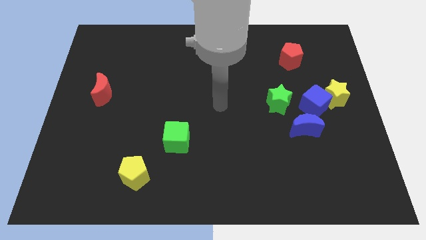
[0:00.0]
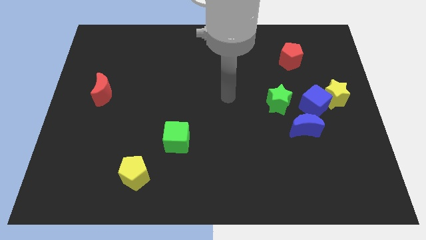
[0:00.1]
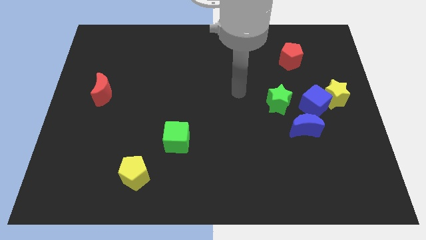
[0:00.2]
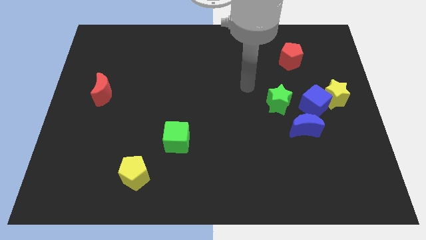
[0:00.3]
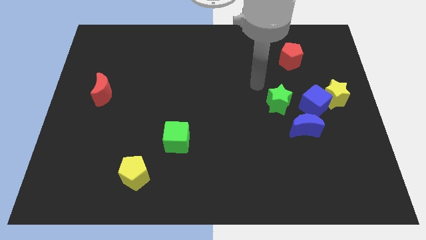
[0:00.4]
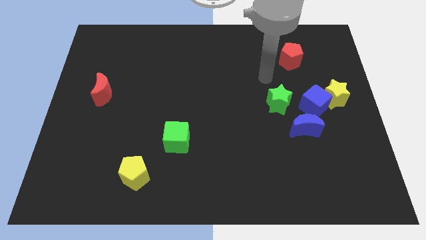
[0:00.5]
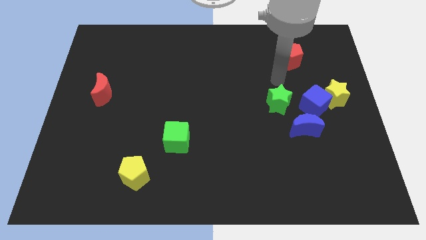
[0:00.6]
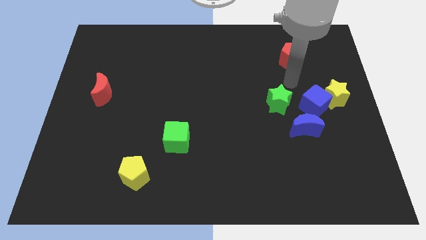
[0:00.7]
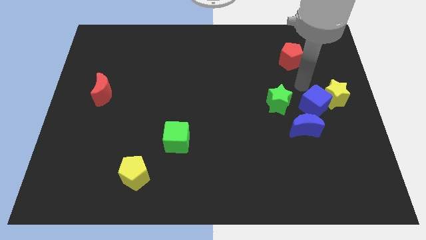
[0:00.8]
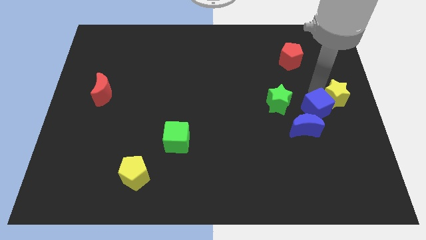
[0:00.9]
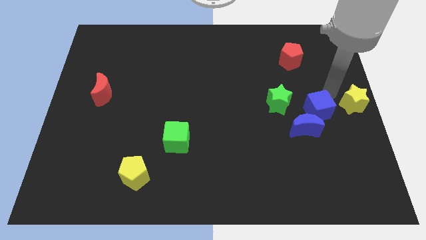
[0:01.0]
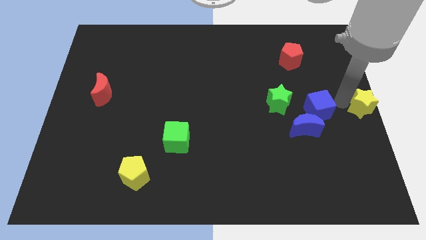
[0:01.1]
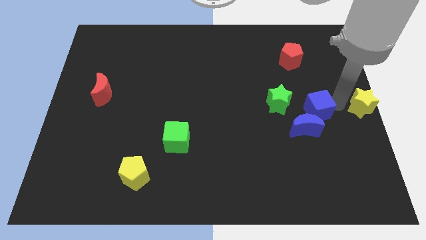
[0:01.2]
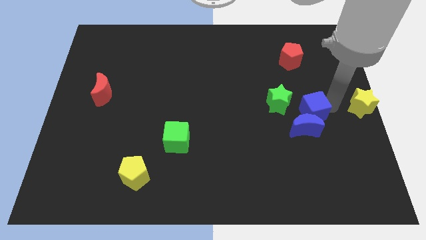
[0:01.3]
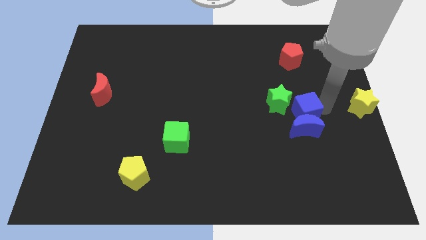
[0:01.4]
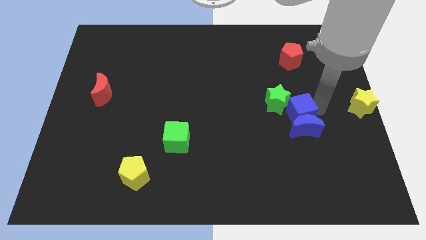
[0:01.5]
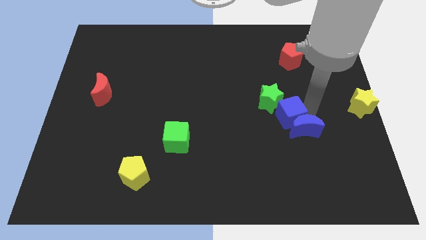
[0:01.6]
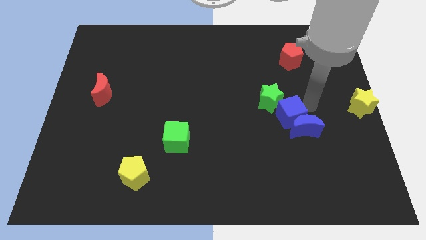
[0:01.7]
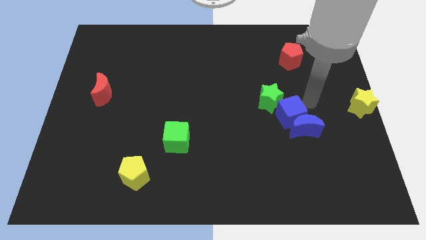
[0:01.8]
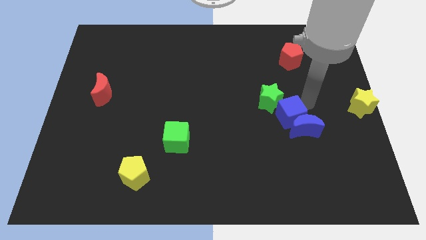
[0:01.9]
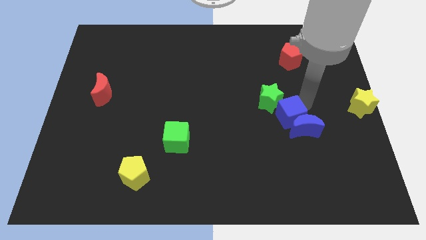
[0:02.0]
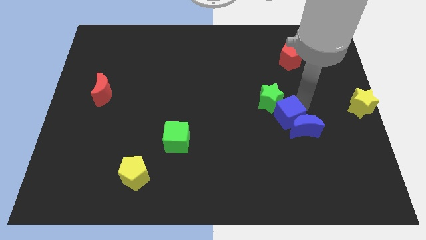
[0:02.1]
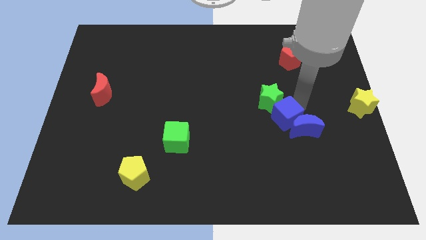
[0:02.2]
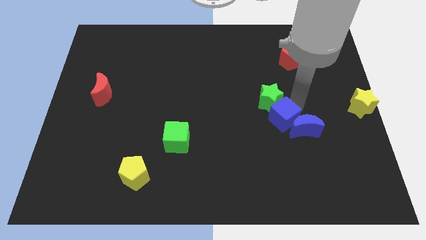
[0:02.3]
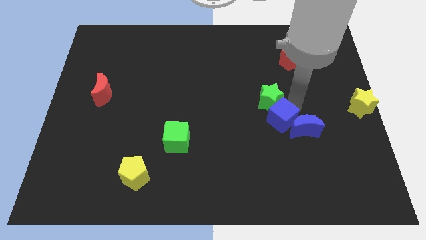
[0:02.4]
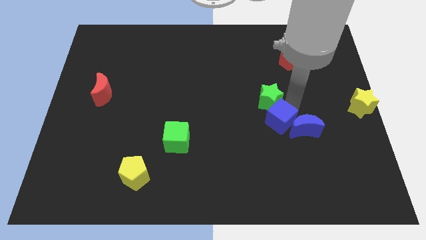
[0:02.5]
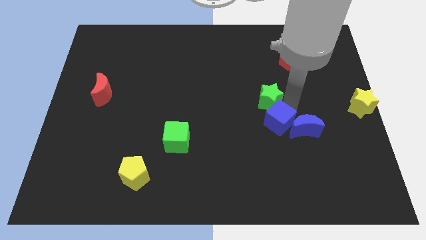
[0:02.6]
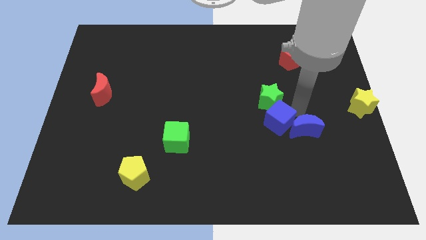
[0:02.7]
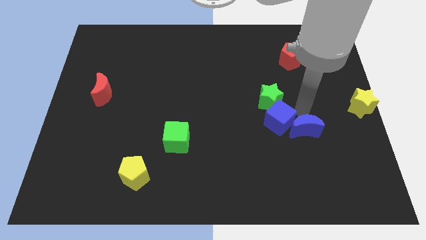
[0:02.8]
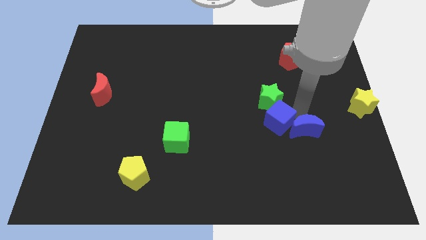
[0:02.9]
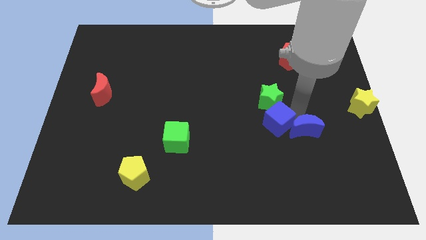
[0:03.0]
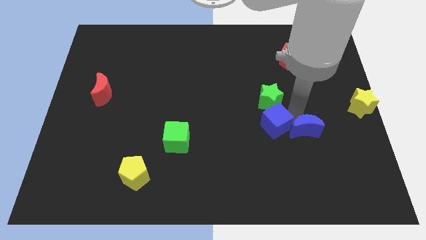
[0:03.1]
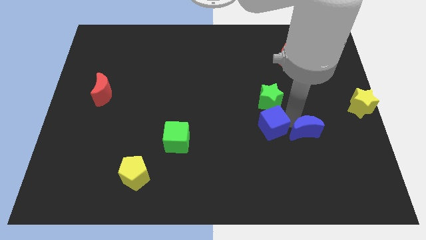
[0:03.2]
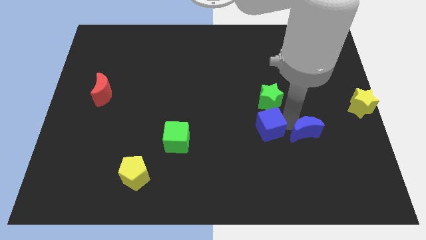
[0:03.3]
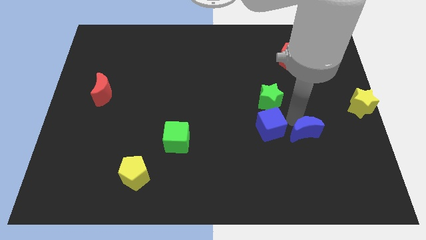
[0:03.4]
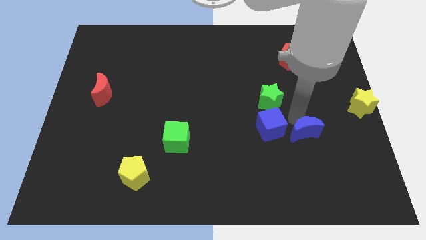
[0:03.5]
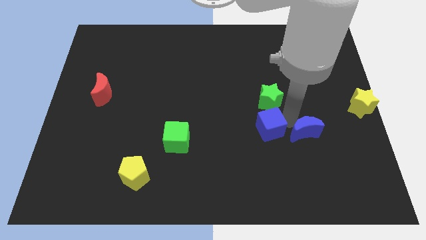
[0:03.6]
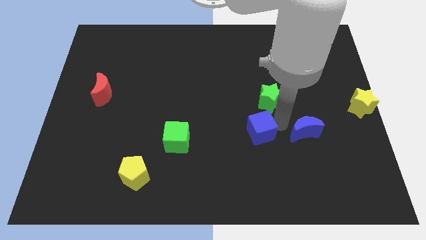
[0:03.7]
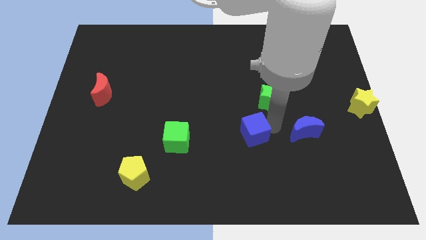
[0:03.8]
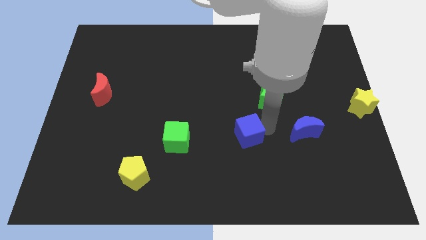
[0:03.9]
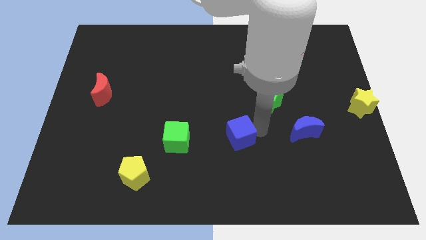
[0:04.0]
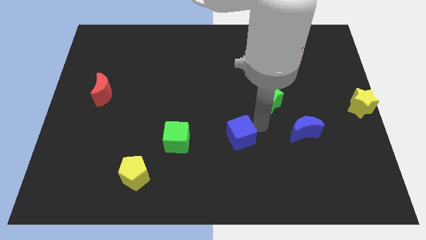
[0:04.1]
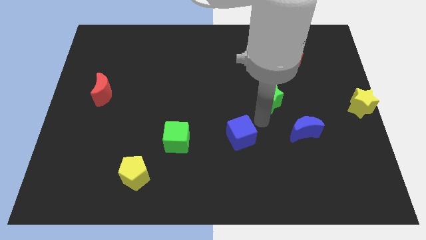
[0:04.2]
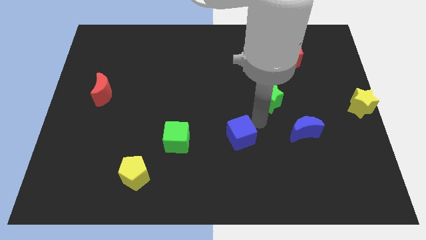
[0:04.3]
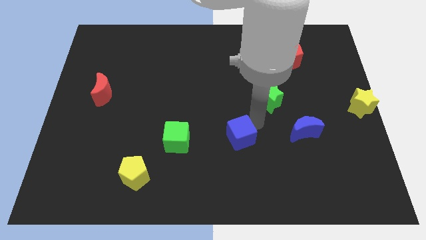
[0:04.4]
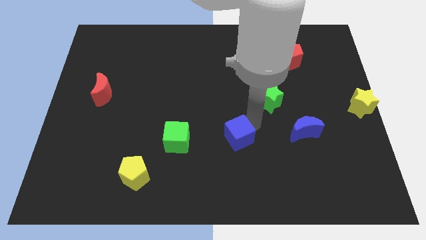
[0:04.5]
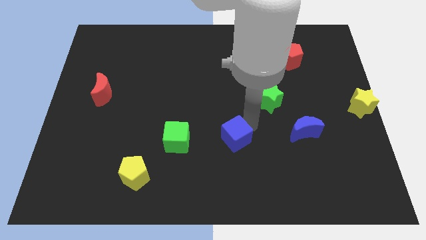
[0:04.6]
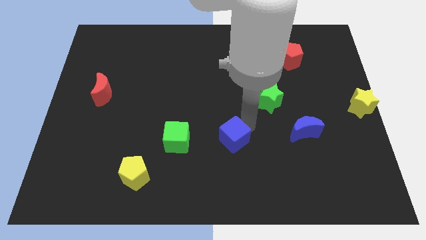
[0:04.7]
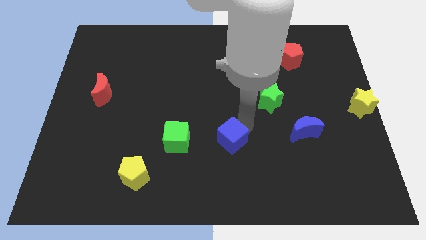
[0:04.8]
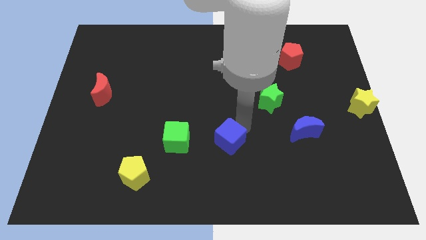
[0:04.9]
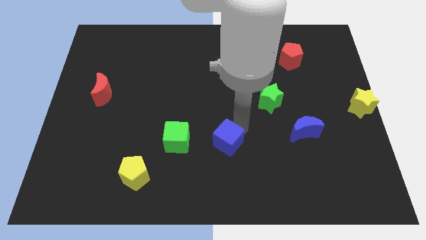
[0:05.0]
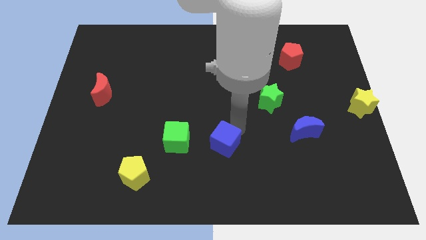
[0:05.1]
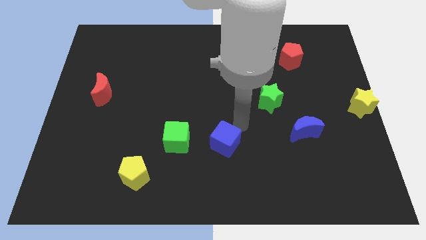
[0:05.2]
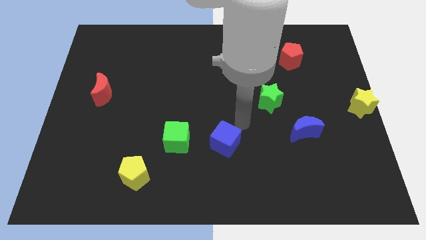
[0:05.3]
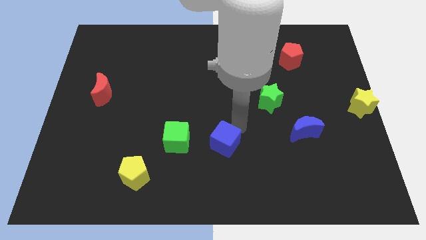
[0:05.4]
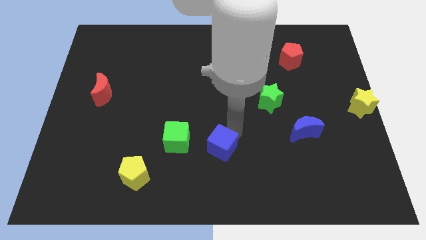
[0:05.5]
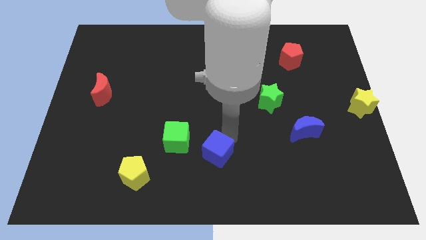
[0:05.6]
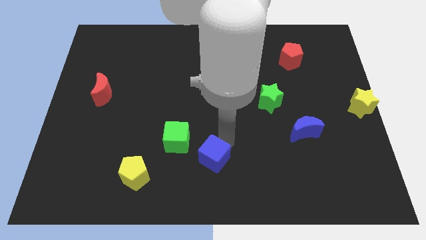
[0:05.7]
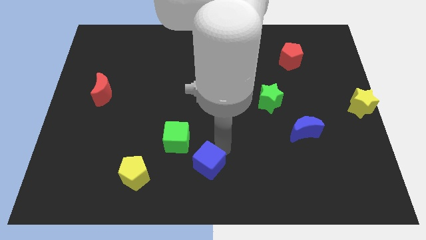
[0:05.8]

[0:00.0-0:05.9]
push the blue cube right of the yellow pentagon

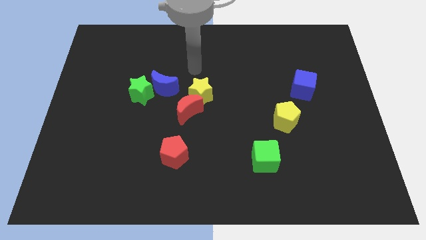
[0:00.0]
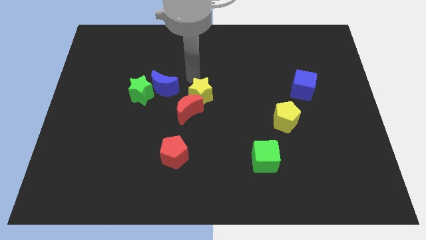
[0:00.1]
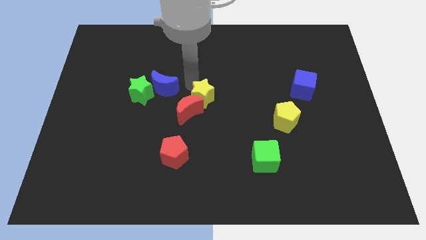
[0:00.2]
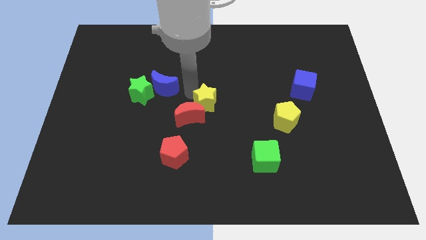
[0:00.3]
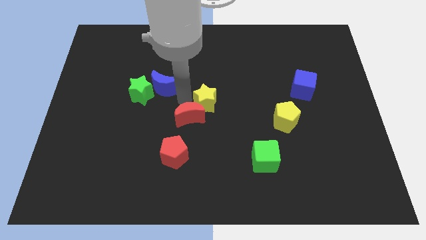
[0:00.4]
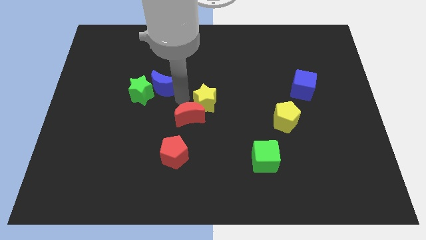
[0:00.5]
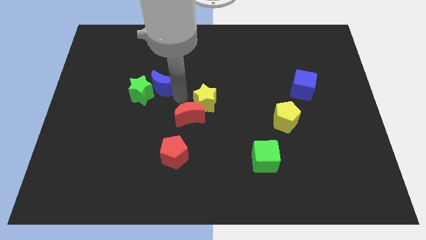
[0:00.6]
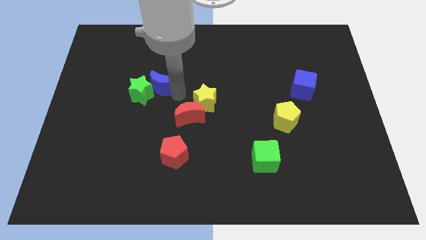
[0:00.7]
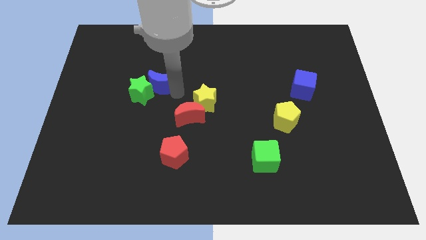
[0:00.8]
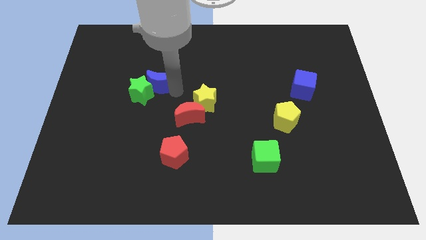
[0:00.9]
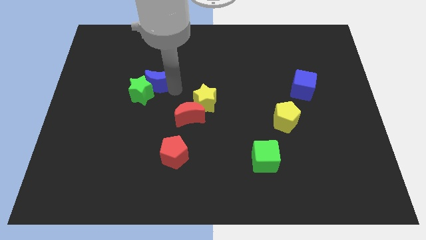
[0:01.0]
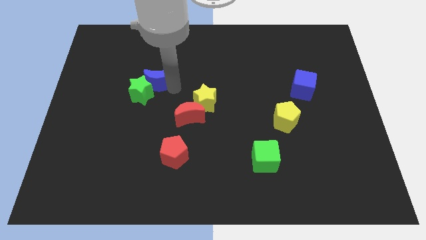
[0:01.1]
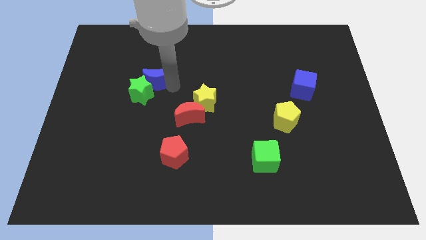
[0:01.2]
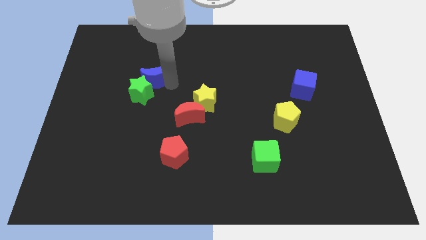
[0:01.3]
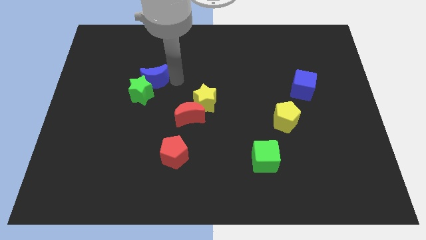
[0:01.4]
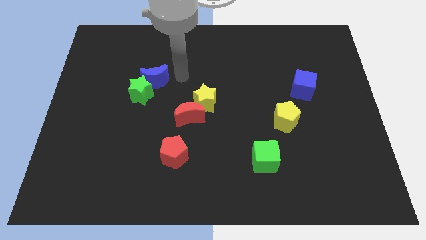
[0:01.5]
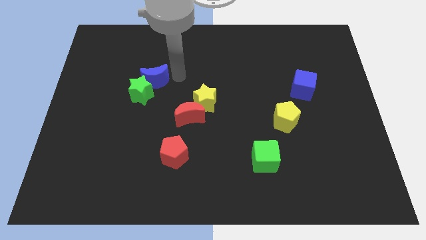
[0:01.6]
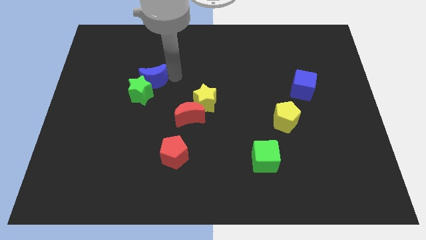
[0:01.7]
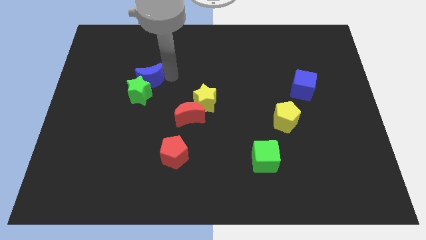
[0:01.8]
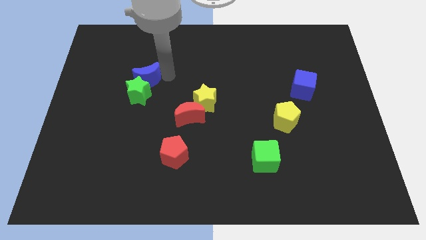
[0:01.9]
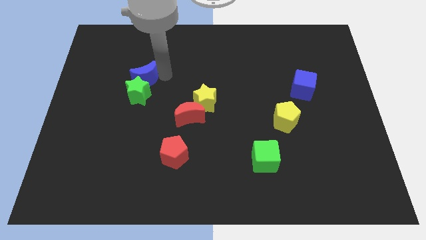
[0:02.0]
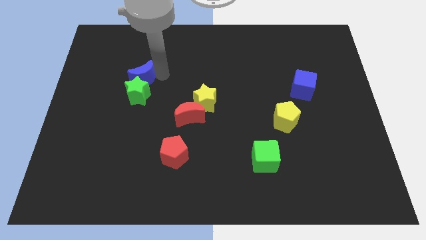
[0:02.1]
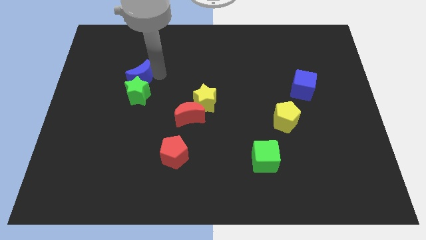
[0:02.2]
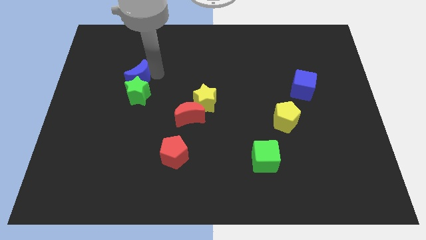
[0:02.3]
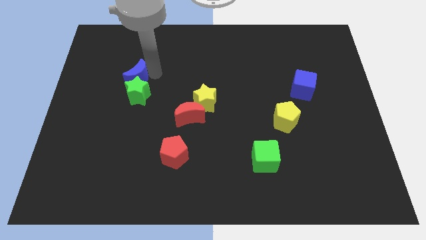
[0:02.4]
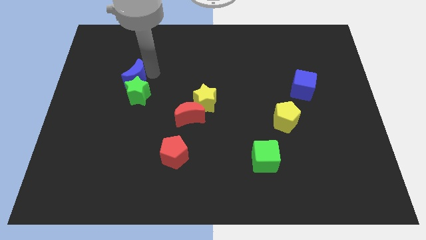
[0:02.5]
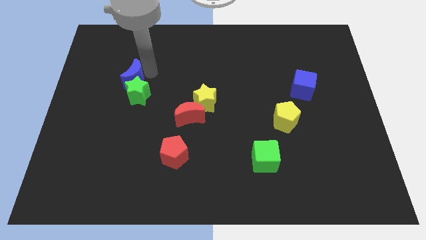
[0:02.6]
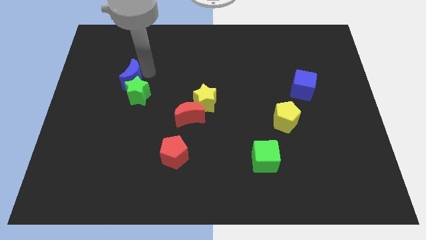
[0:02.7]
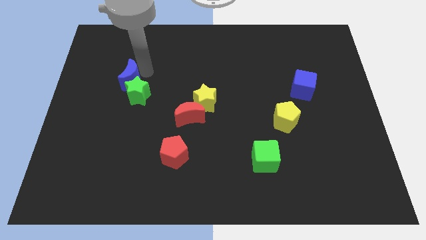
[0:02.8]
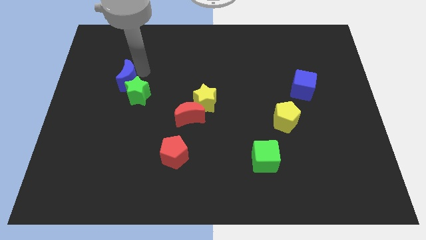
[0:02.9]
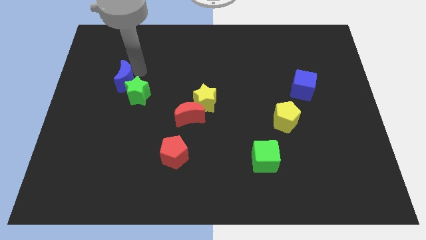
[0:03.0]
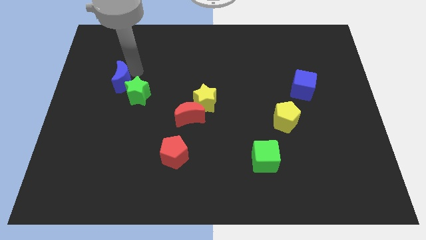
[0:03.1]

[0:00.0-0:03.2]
put the blue moon left of the green star
